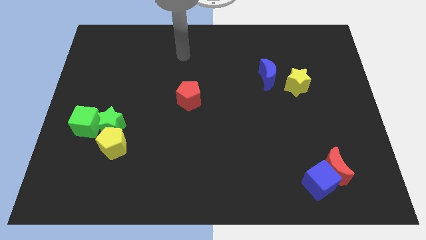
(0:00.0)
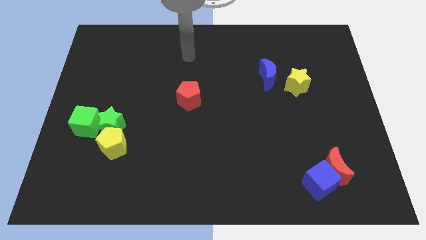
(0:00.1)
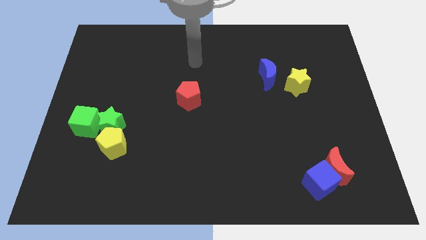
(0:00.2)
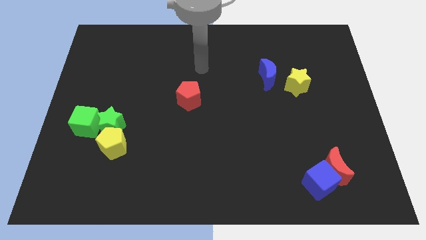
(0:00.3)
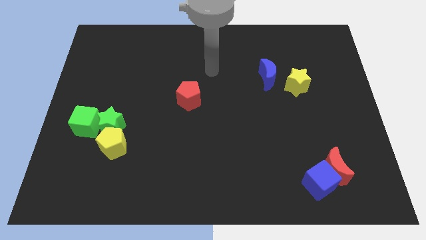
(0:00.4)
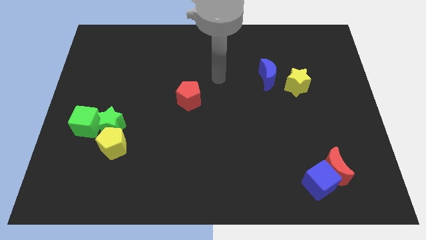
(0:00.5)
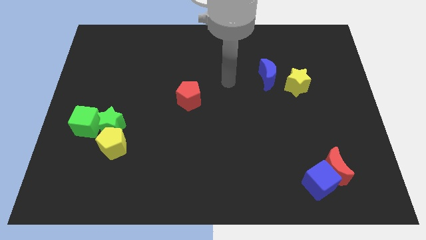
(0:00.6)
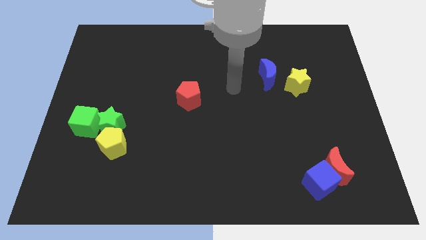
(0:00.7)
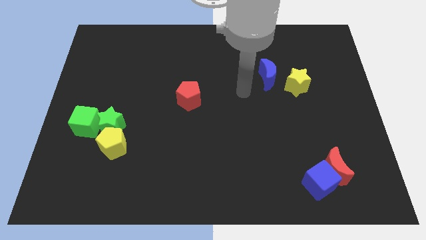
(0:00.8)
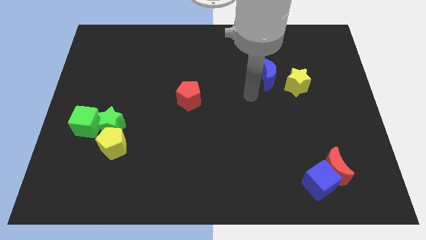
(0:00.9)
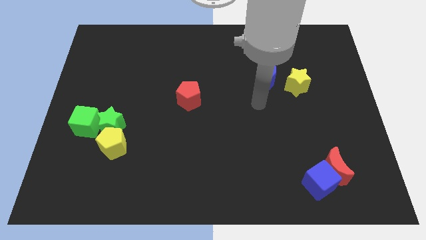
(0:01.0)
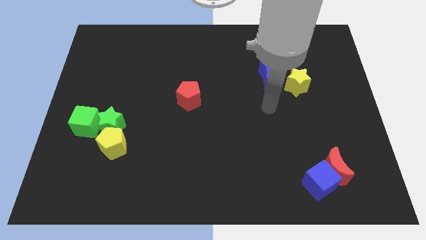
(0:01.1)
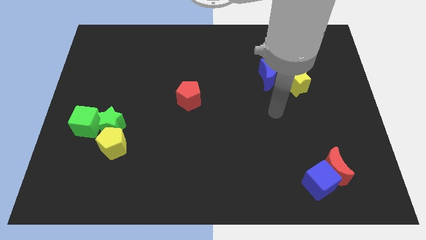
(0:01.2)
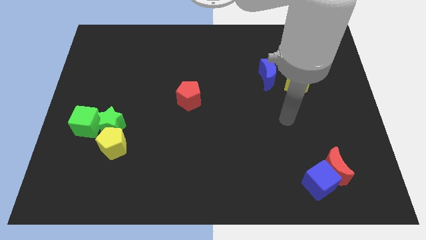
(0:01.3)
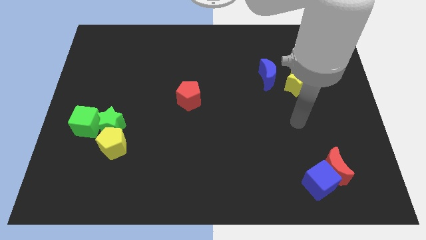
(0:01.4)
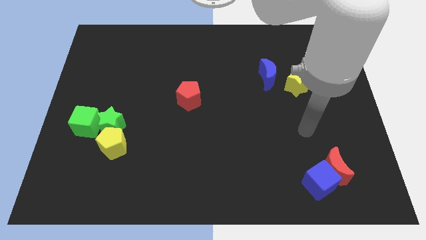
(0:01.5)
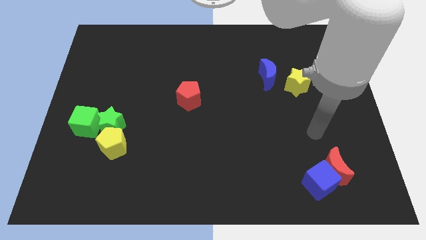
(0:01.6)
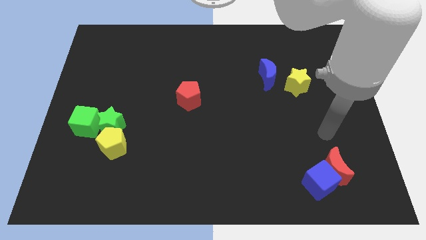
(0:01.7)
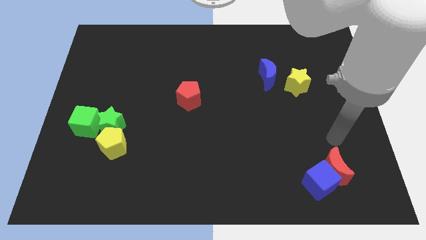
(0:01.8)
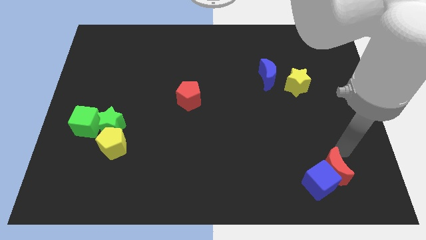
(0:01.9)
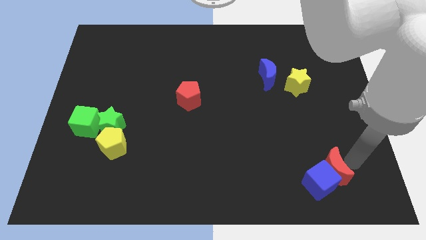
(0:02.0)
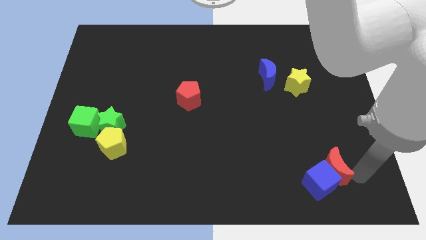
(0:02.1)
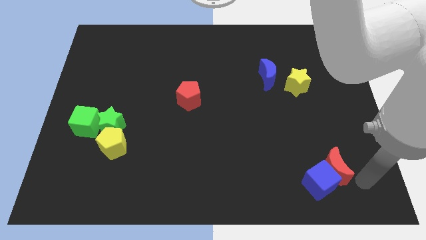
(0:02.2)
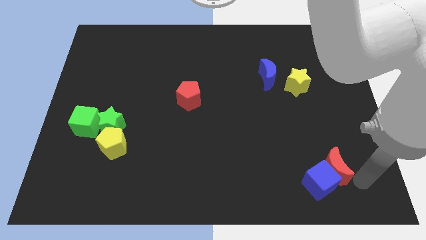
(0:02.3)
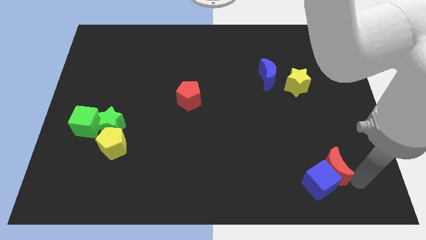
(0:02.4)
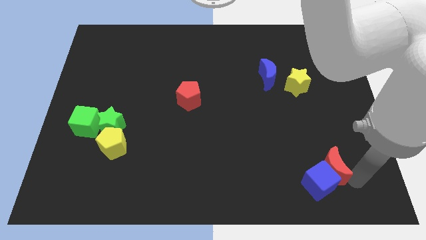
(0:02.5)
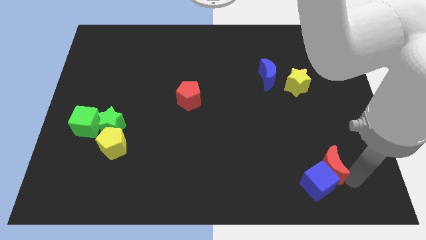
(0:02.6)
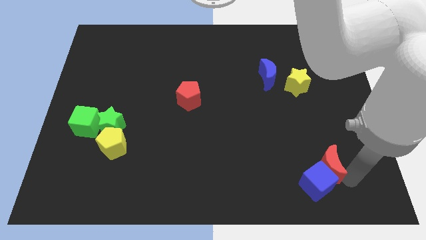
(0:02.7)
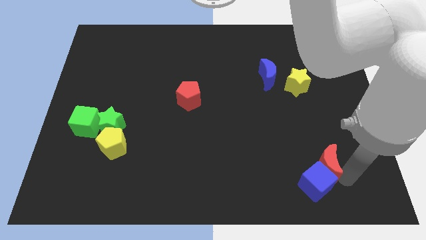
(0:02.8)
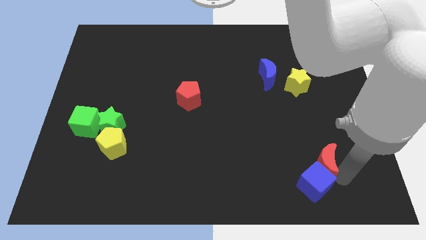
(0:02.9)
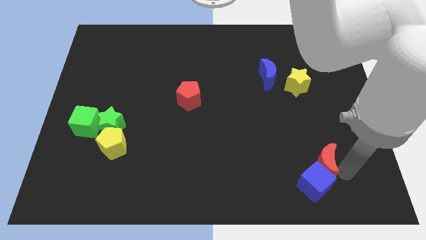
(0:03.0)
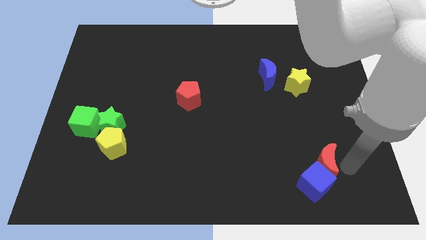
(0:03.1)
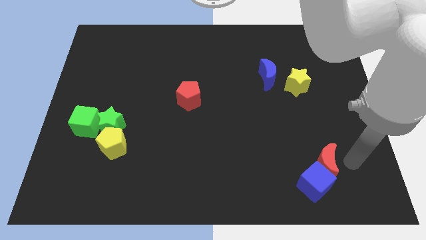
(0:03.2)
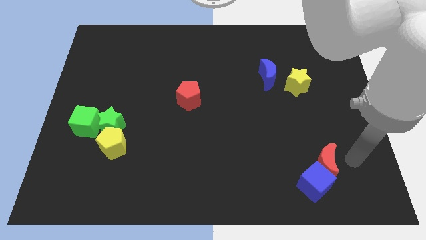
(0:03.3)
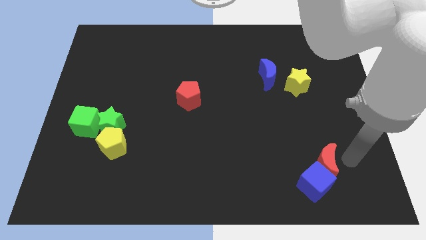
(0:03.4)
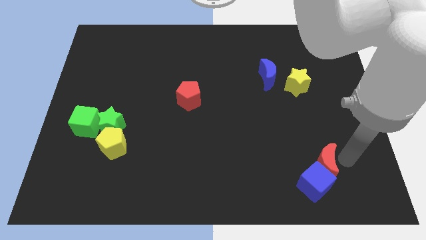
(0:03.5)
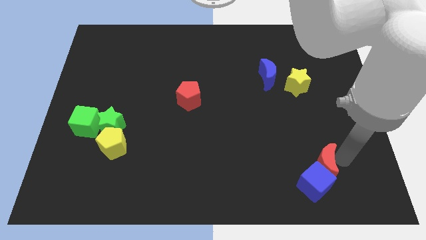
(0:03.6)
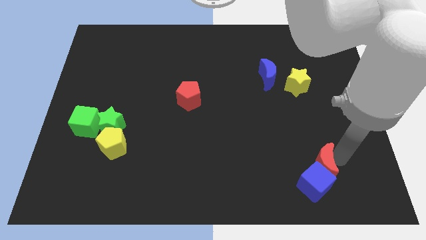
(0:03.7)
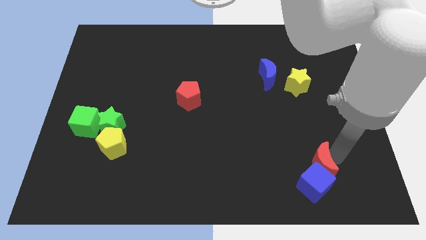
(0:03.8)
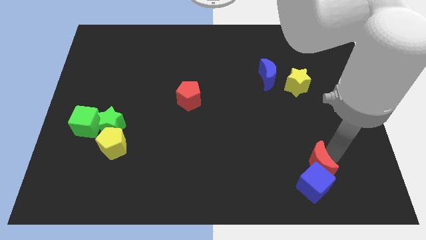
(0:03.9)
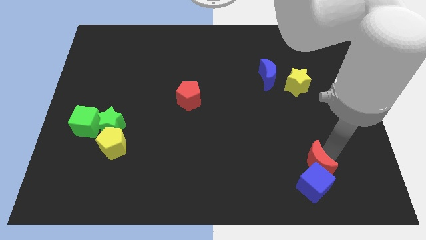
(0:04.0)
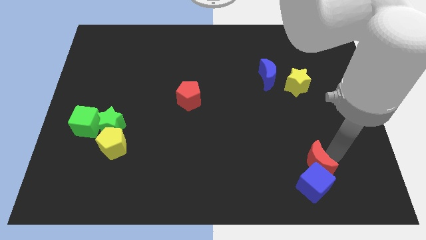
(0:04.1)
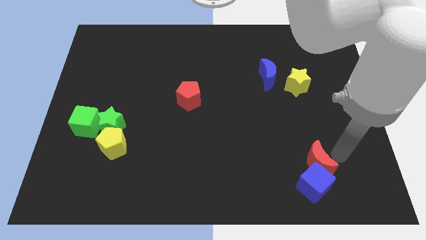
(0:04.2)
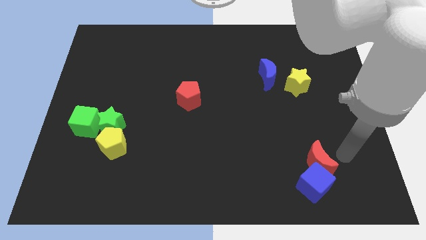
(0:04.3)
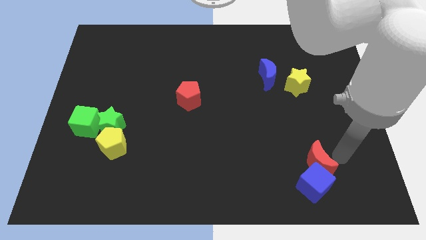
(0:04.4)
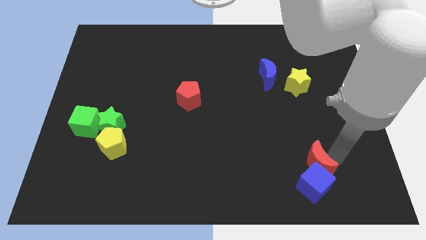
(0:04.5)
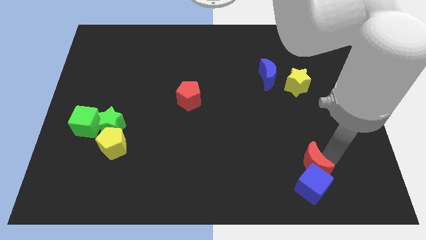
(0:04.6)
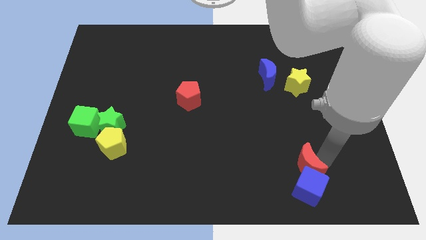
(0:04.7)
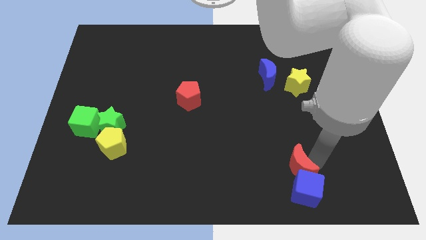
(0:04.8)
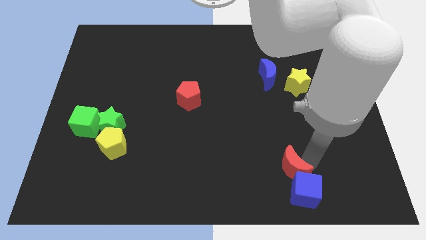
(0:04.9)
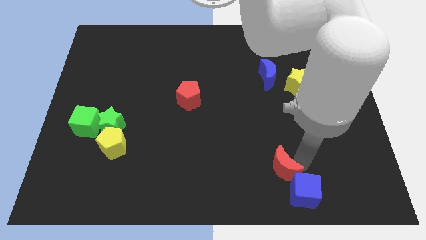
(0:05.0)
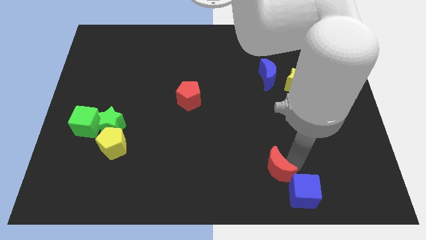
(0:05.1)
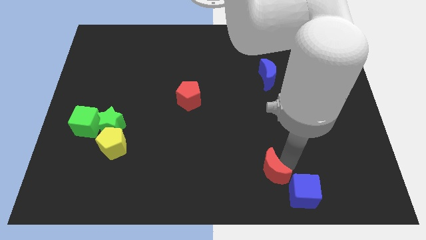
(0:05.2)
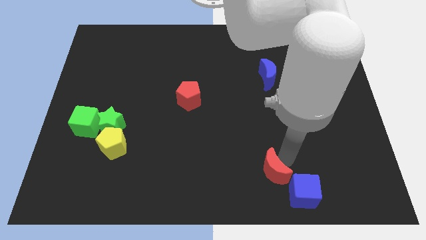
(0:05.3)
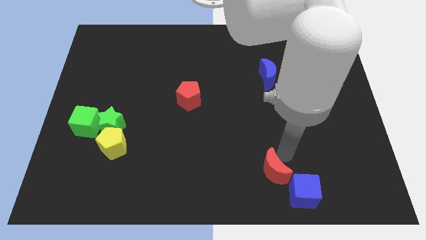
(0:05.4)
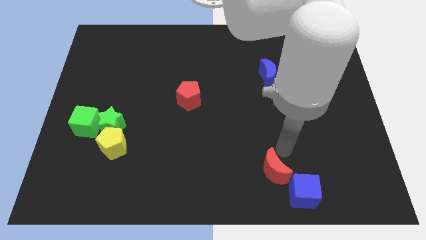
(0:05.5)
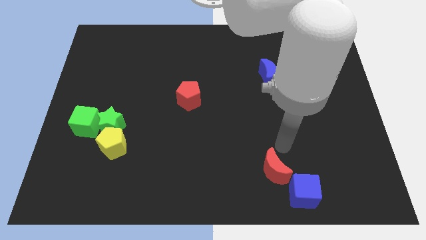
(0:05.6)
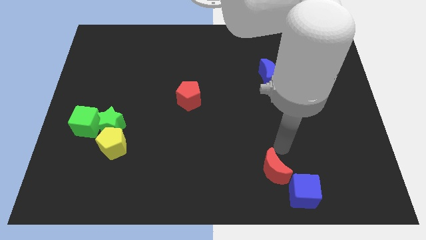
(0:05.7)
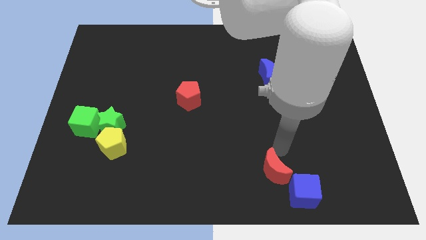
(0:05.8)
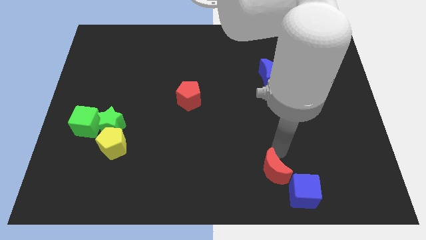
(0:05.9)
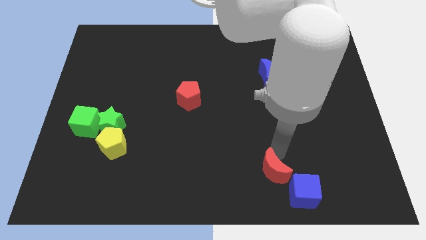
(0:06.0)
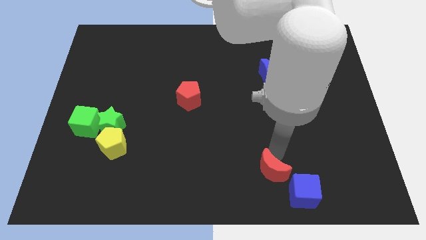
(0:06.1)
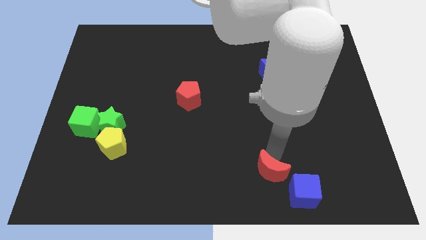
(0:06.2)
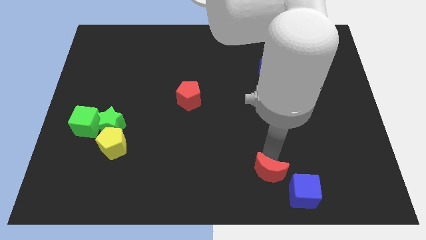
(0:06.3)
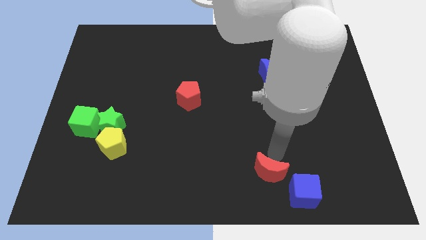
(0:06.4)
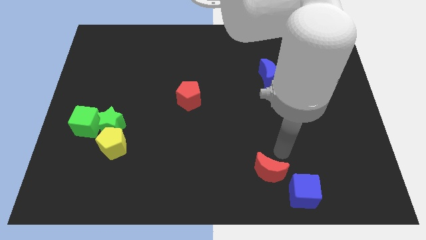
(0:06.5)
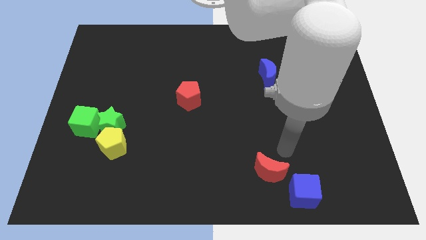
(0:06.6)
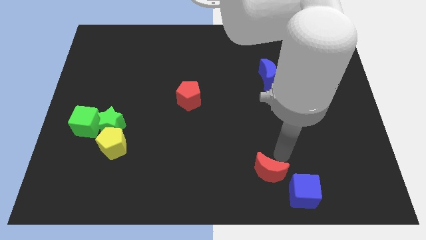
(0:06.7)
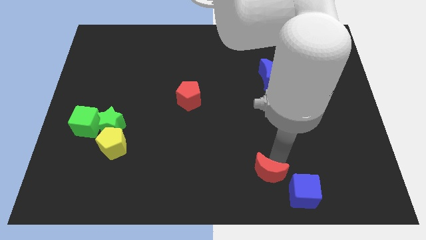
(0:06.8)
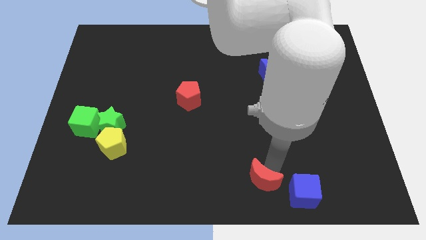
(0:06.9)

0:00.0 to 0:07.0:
put the red moon to the bottom side
